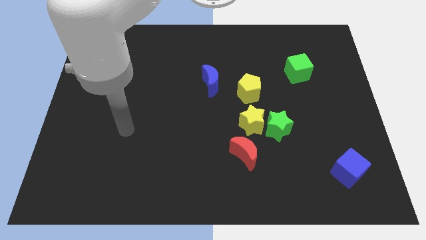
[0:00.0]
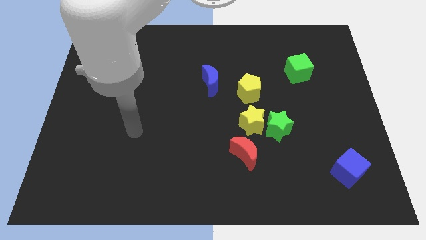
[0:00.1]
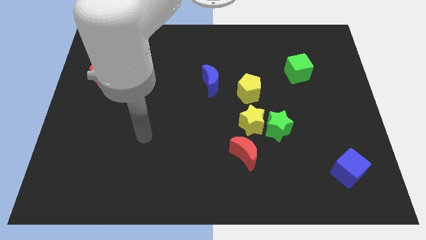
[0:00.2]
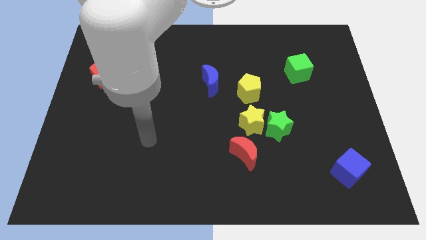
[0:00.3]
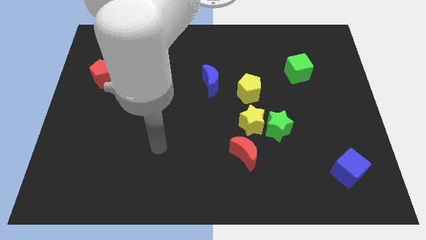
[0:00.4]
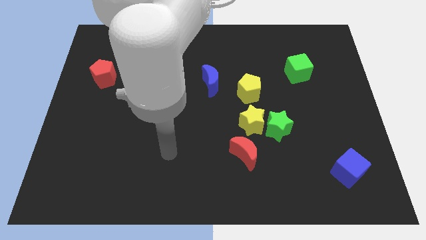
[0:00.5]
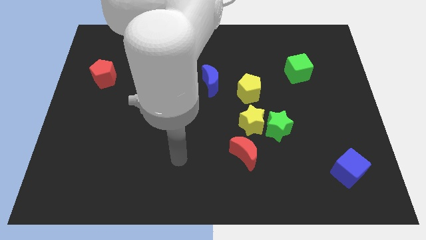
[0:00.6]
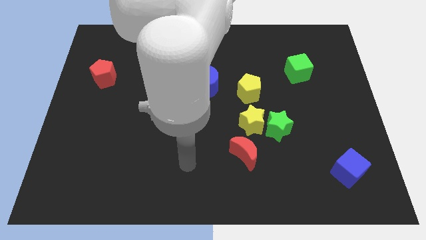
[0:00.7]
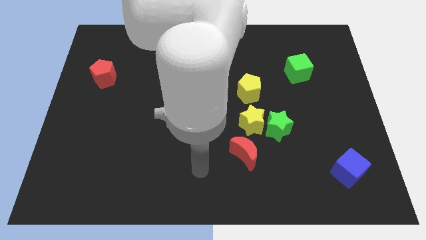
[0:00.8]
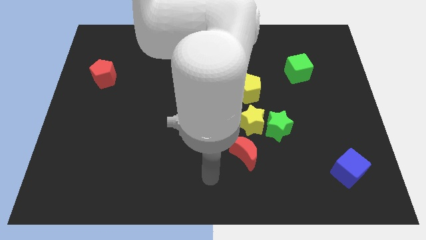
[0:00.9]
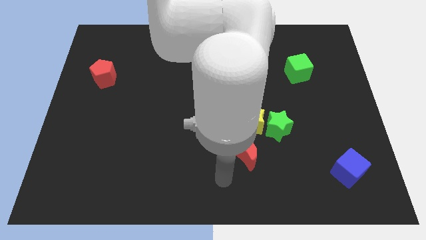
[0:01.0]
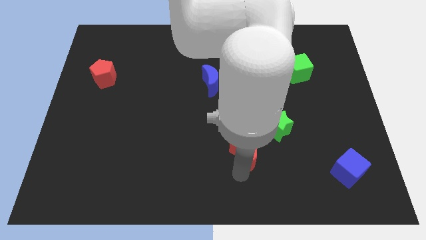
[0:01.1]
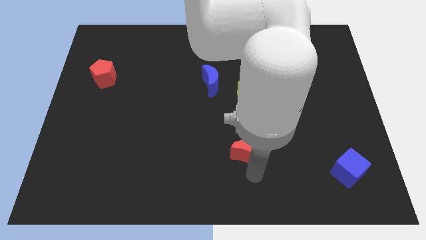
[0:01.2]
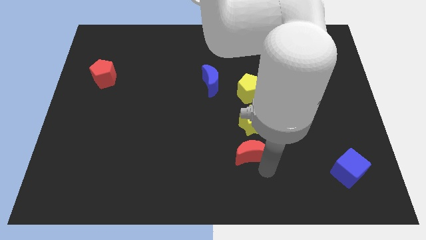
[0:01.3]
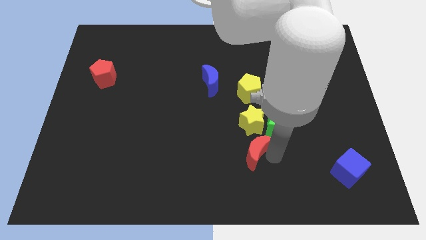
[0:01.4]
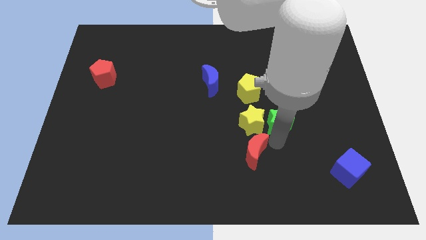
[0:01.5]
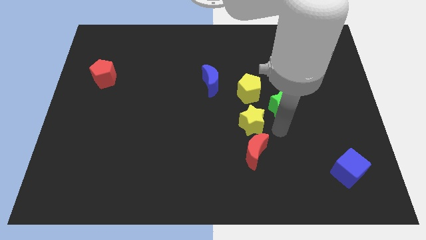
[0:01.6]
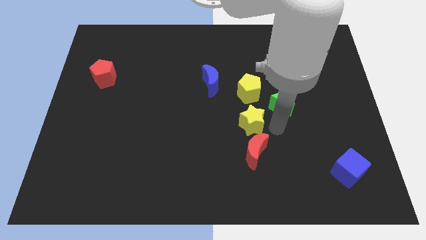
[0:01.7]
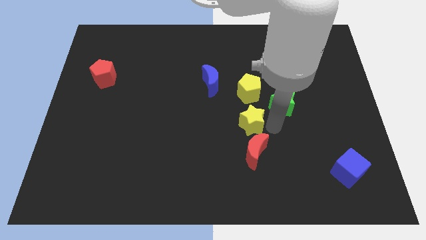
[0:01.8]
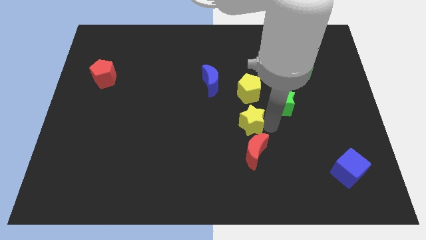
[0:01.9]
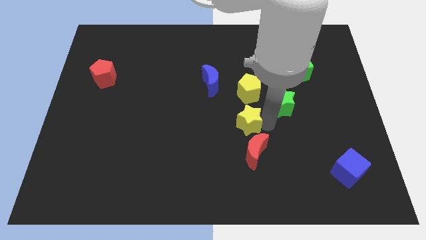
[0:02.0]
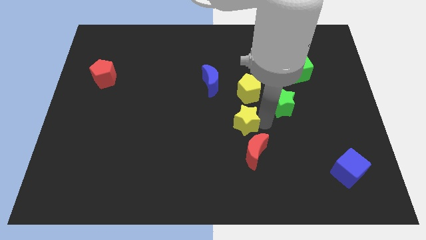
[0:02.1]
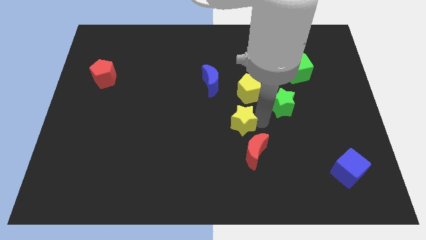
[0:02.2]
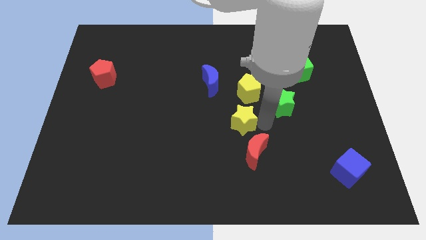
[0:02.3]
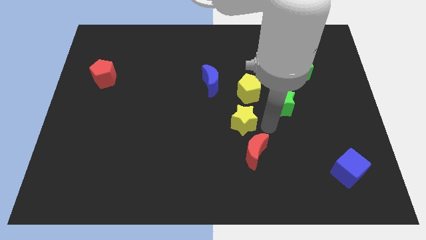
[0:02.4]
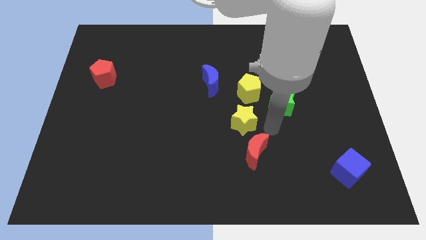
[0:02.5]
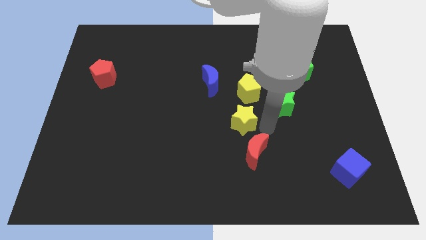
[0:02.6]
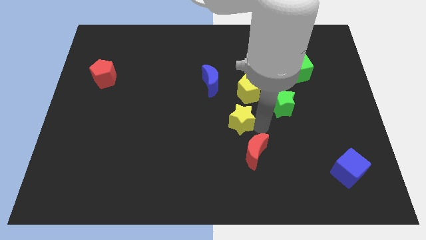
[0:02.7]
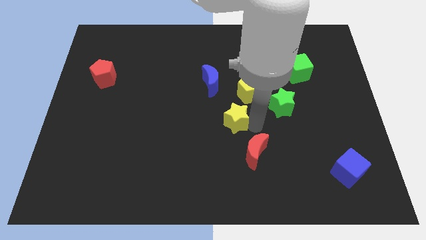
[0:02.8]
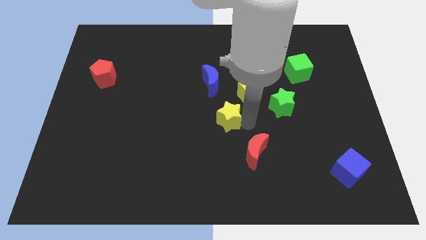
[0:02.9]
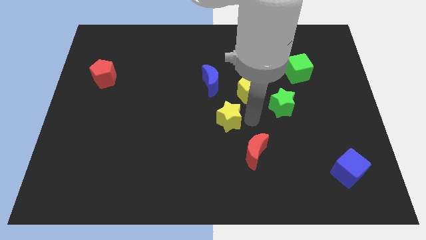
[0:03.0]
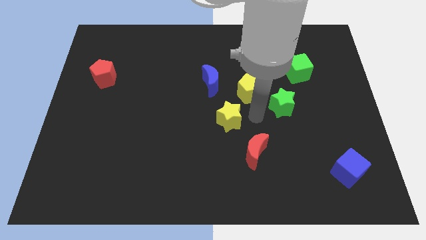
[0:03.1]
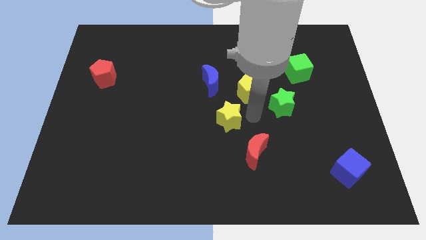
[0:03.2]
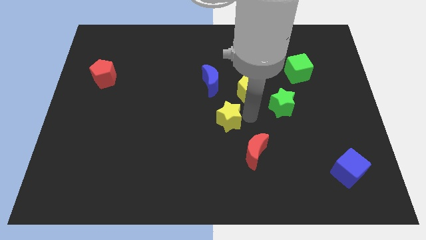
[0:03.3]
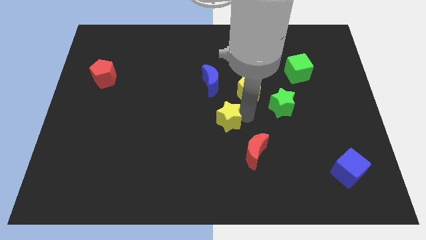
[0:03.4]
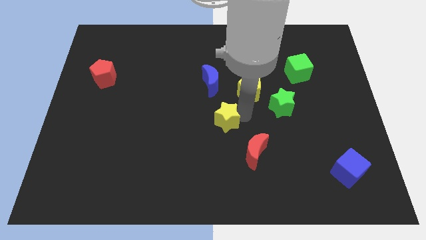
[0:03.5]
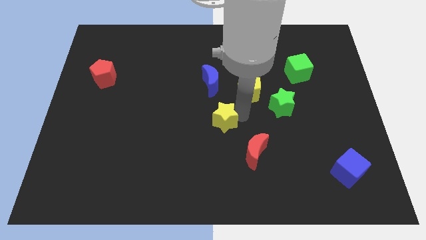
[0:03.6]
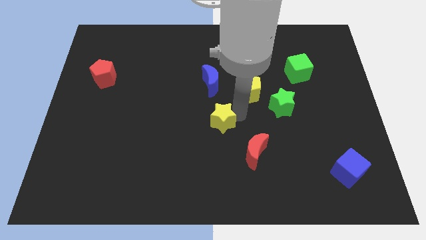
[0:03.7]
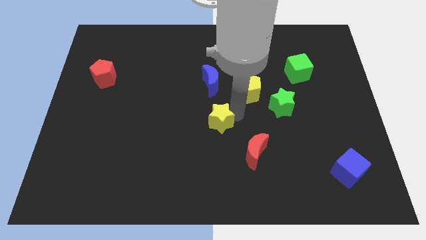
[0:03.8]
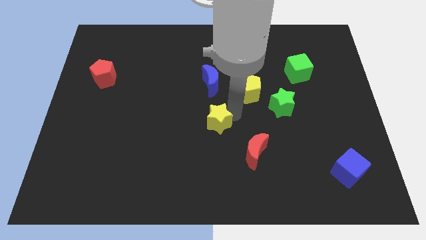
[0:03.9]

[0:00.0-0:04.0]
pull the yellow star apart from the group of blocks

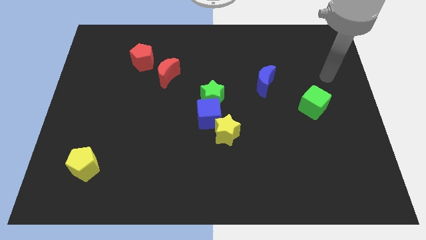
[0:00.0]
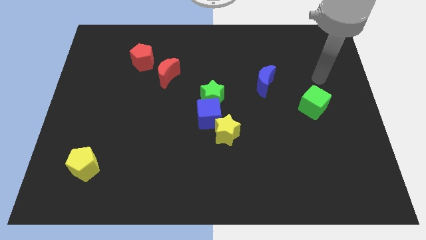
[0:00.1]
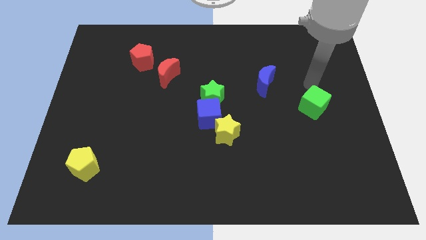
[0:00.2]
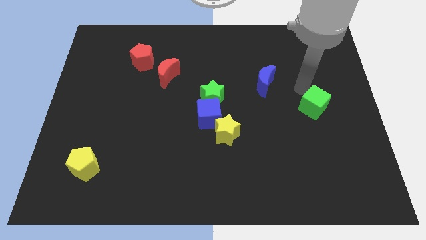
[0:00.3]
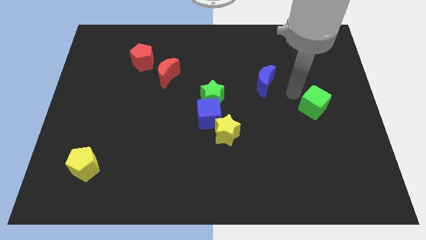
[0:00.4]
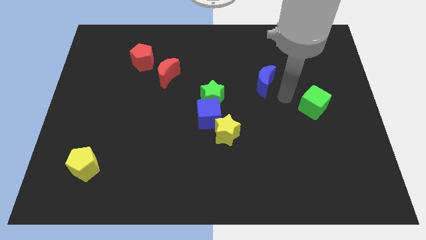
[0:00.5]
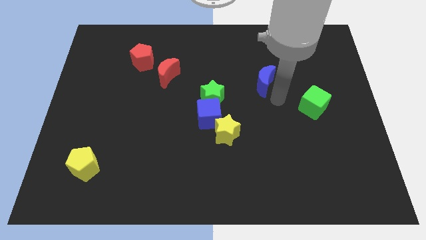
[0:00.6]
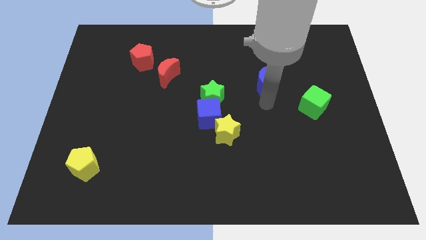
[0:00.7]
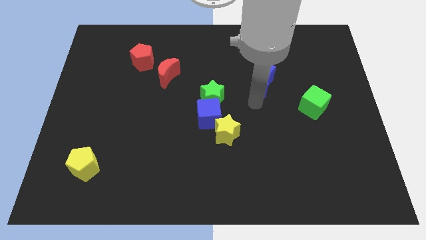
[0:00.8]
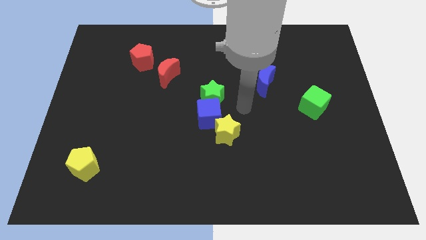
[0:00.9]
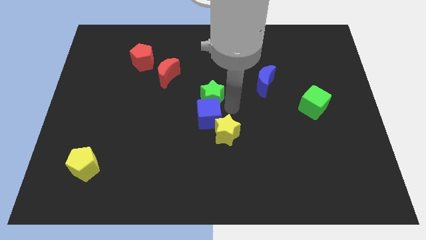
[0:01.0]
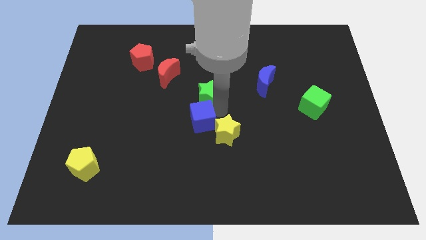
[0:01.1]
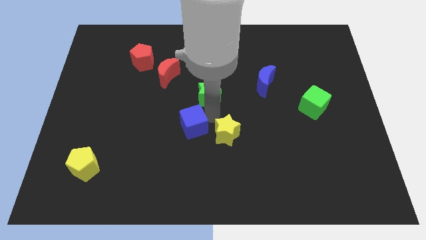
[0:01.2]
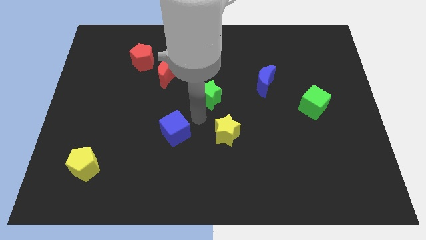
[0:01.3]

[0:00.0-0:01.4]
pull the green star apart from the blue cube

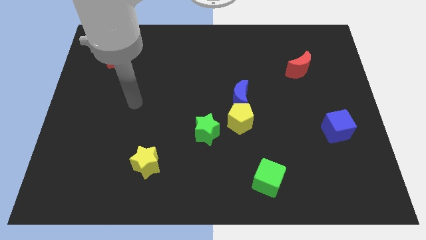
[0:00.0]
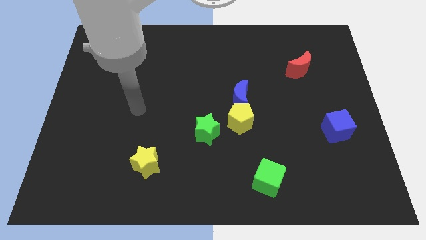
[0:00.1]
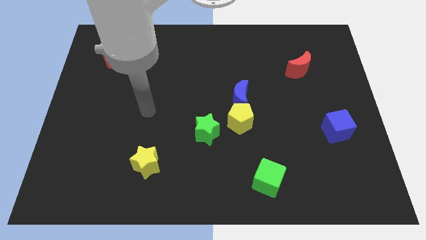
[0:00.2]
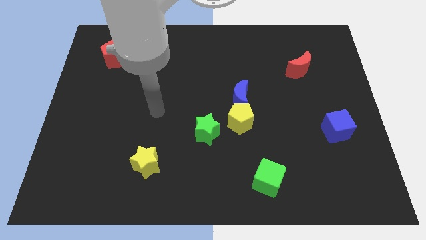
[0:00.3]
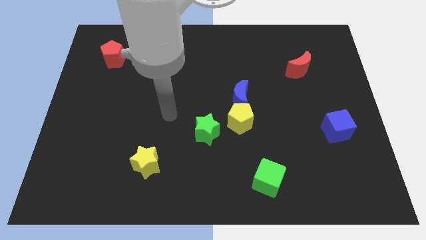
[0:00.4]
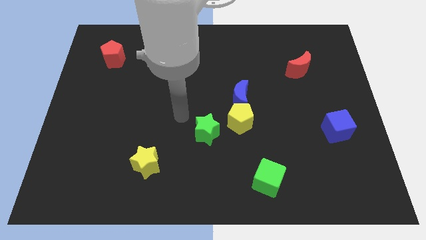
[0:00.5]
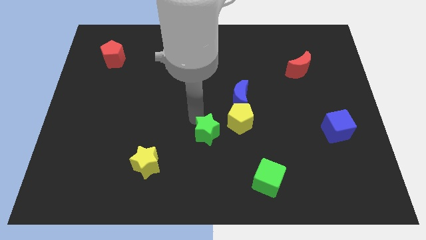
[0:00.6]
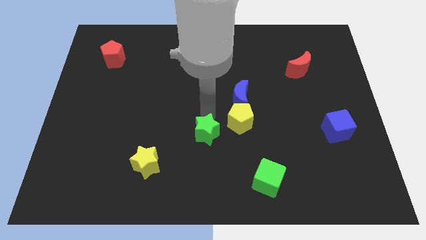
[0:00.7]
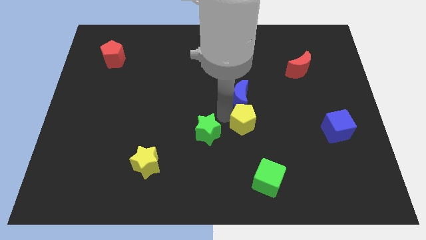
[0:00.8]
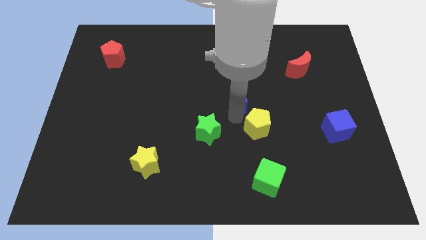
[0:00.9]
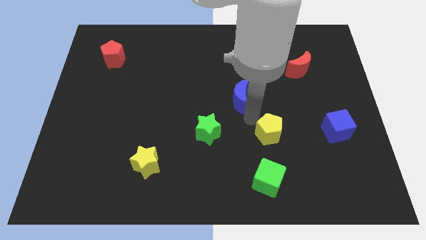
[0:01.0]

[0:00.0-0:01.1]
separate the blue moon from the yellow pentagon

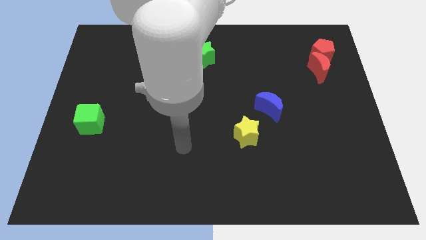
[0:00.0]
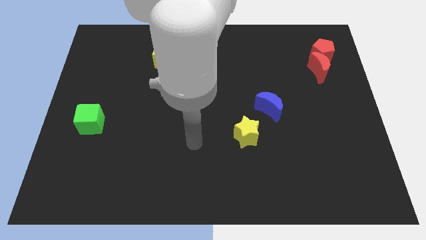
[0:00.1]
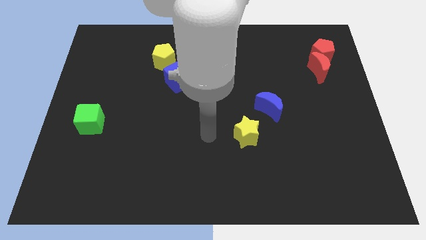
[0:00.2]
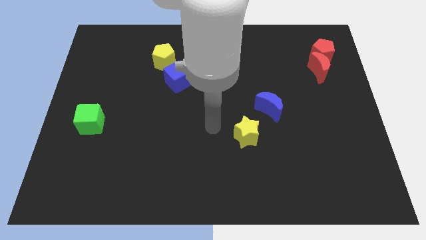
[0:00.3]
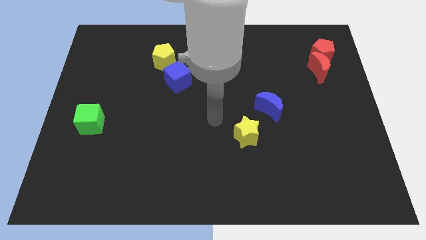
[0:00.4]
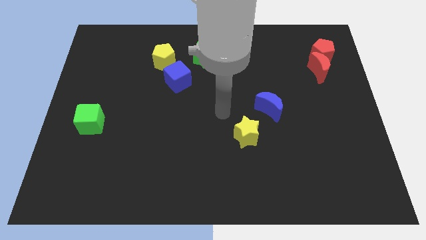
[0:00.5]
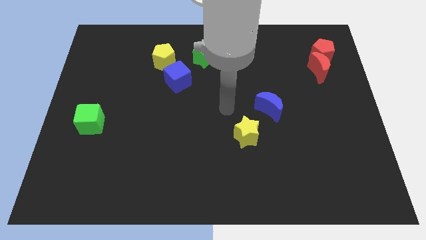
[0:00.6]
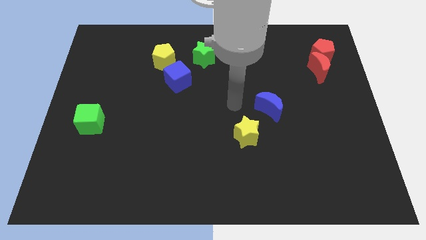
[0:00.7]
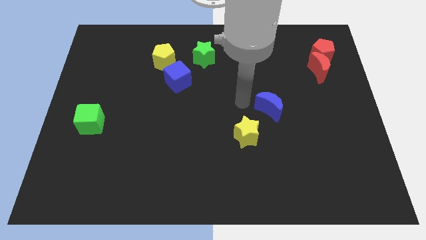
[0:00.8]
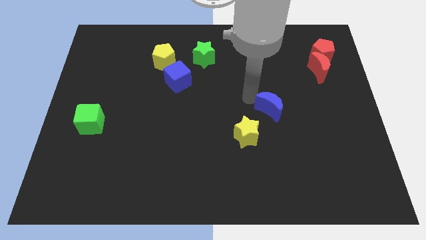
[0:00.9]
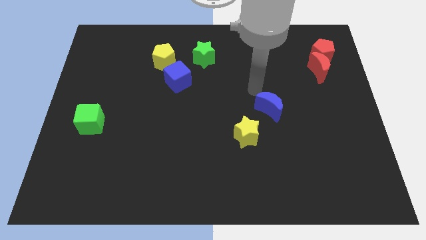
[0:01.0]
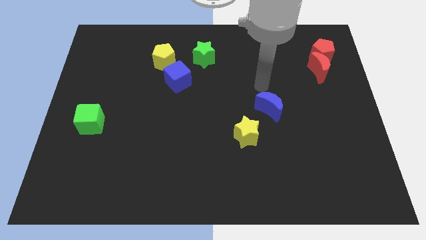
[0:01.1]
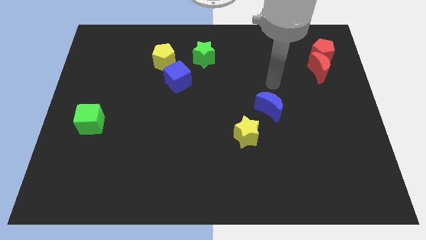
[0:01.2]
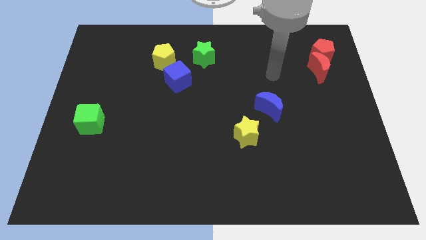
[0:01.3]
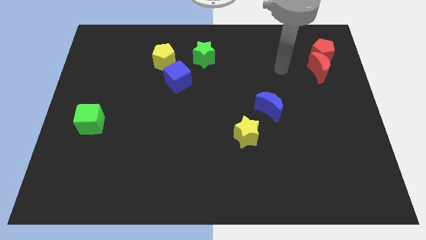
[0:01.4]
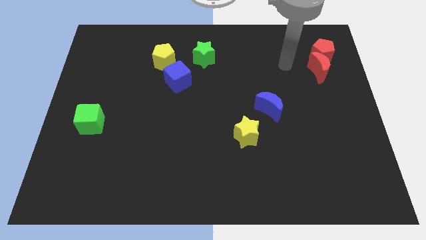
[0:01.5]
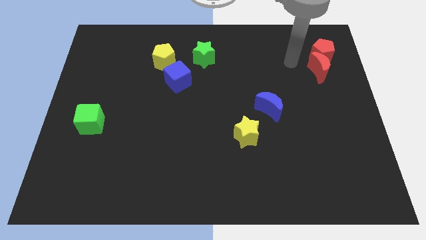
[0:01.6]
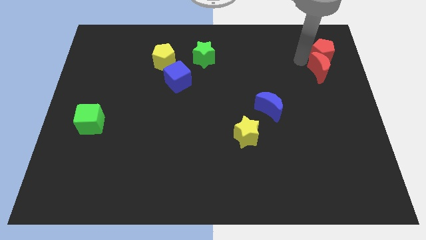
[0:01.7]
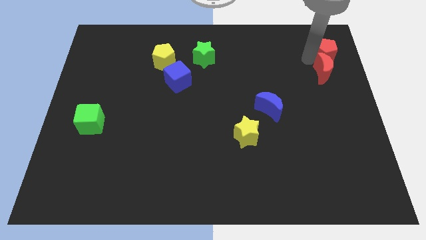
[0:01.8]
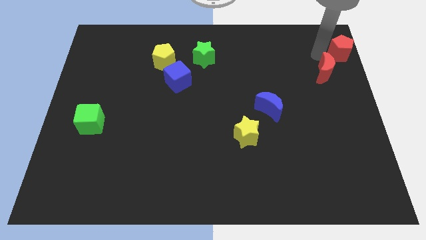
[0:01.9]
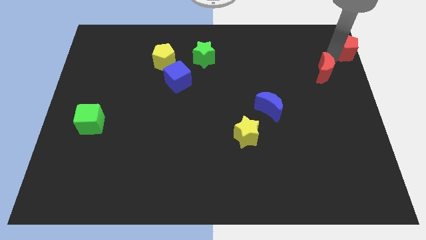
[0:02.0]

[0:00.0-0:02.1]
separate the red moon from the red pentagon

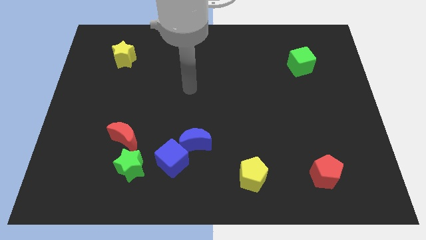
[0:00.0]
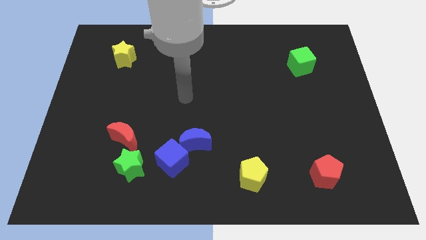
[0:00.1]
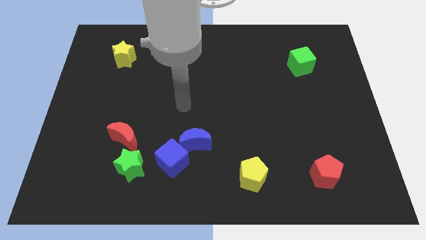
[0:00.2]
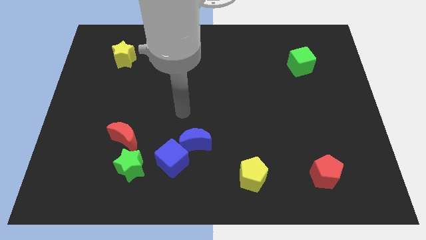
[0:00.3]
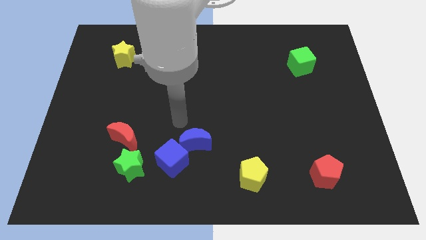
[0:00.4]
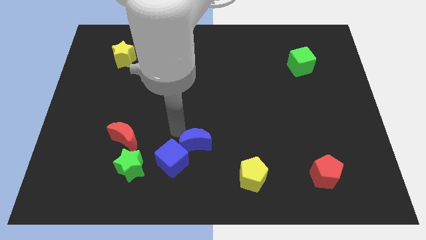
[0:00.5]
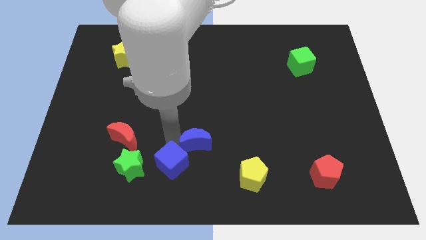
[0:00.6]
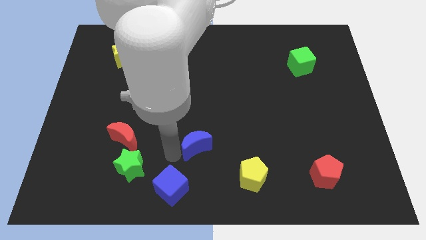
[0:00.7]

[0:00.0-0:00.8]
separate the blue moon from the blue cube

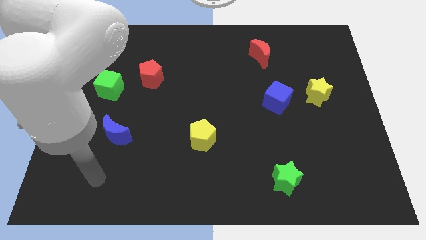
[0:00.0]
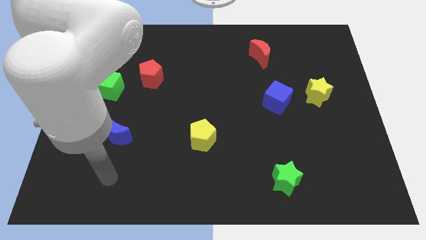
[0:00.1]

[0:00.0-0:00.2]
move the blue cube away from the yellow star
